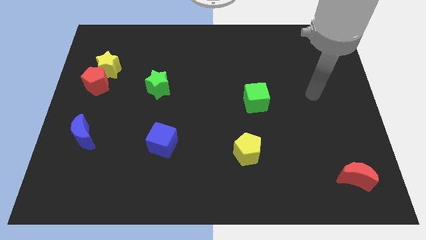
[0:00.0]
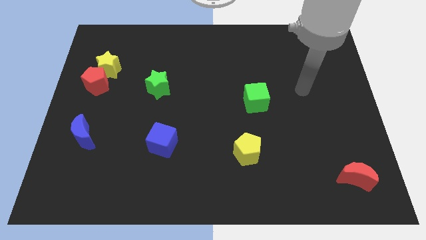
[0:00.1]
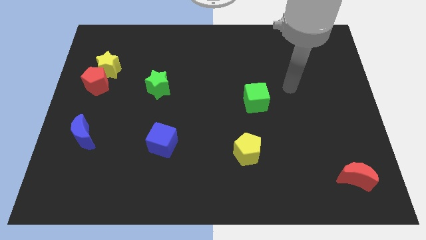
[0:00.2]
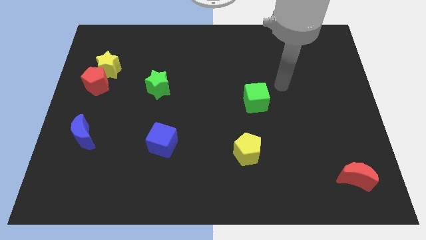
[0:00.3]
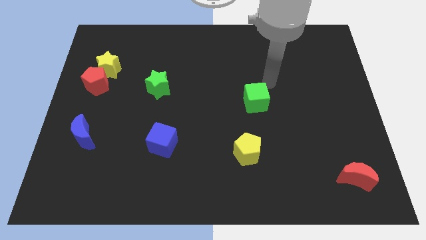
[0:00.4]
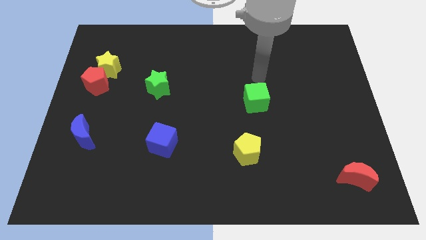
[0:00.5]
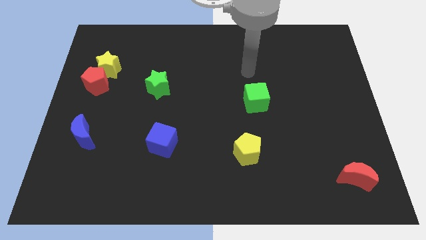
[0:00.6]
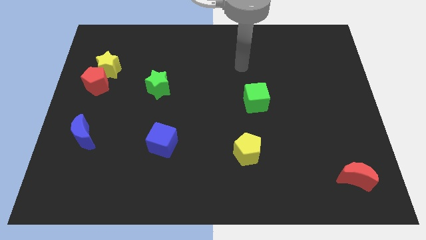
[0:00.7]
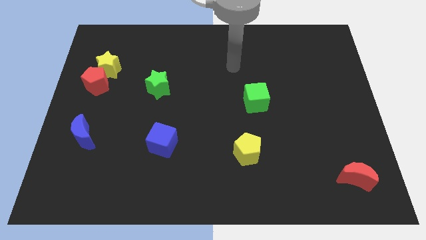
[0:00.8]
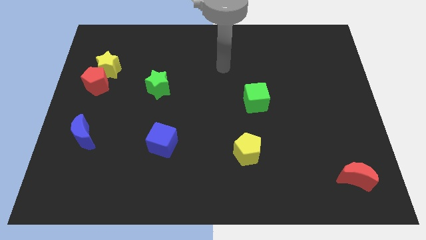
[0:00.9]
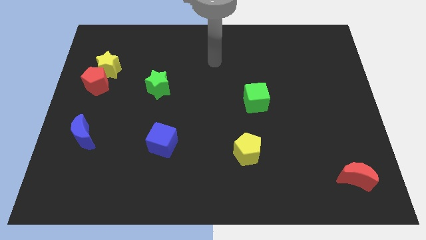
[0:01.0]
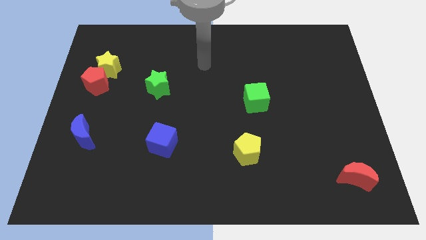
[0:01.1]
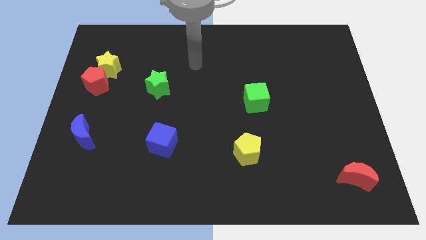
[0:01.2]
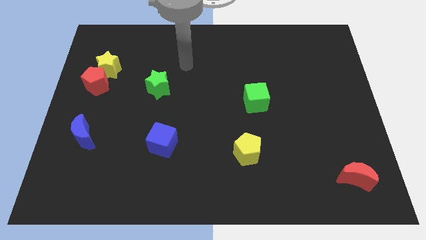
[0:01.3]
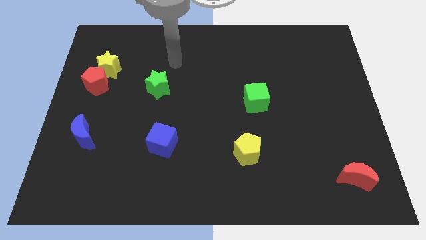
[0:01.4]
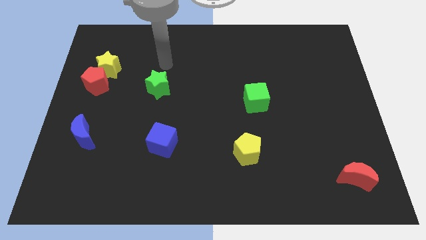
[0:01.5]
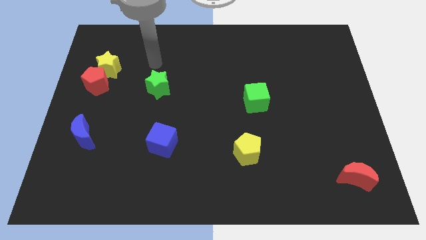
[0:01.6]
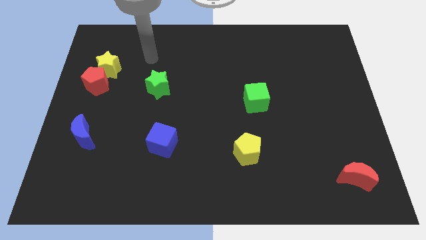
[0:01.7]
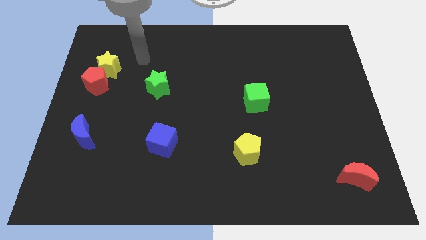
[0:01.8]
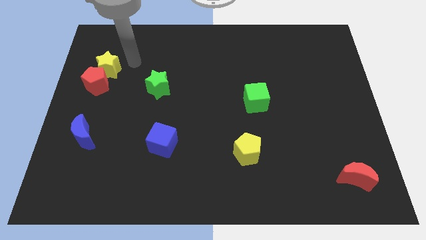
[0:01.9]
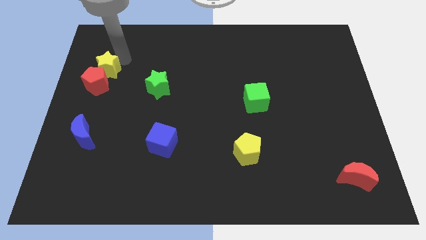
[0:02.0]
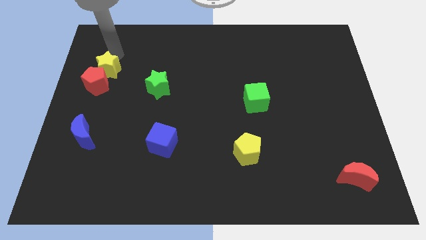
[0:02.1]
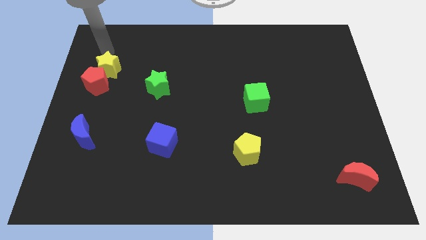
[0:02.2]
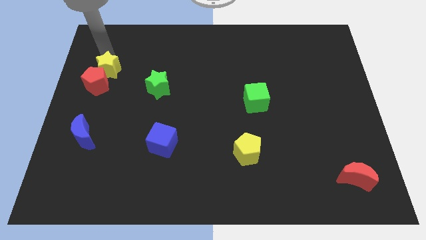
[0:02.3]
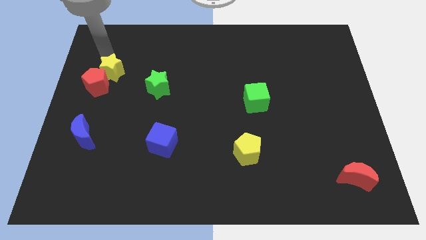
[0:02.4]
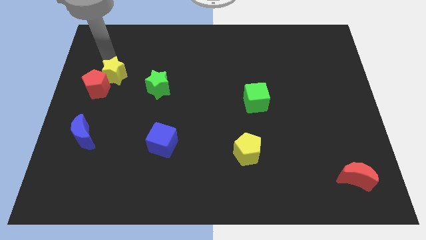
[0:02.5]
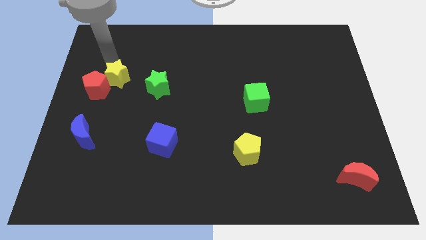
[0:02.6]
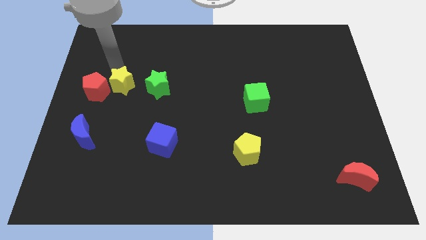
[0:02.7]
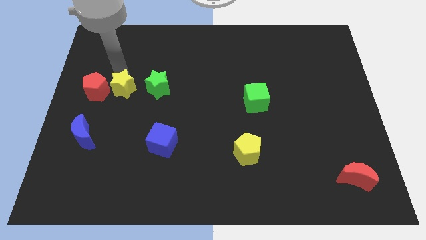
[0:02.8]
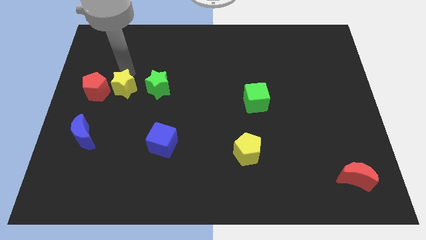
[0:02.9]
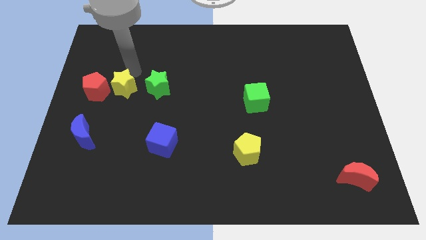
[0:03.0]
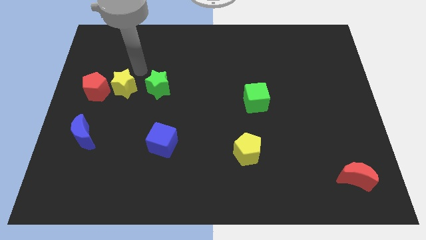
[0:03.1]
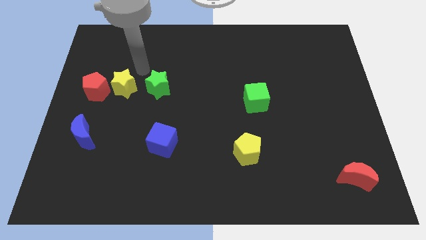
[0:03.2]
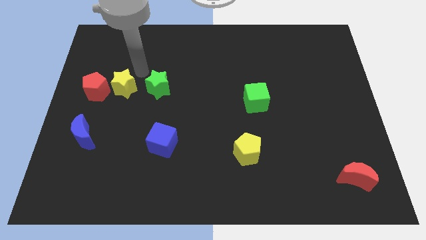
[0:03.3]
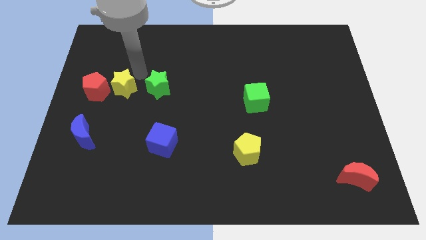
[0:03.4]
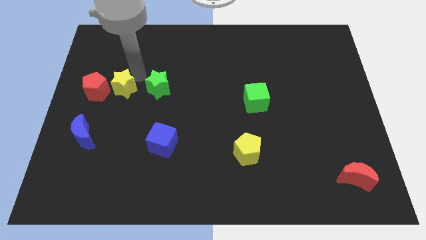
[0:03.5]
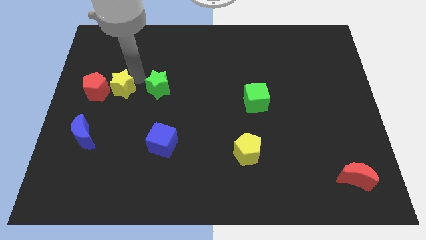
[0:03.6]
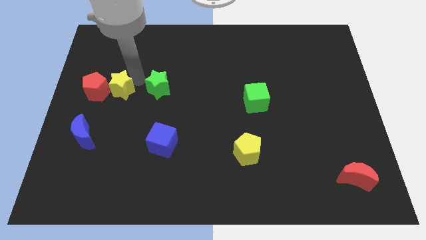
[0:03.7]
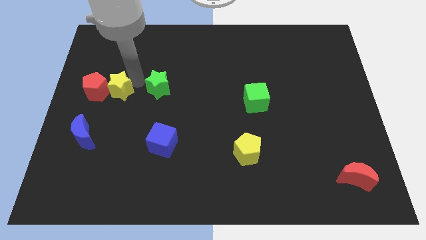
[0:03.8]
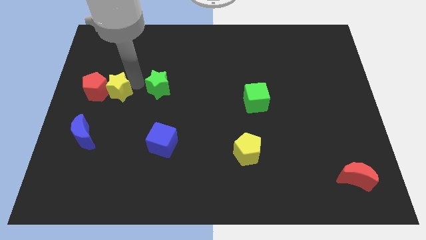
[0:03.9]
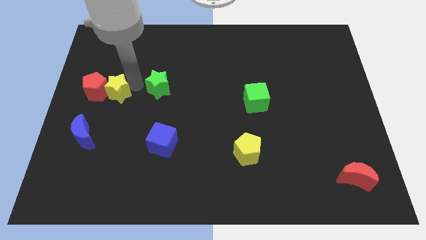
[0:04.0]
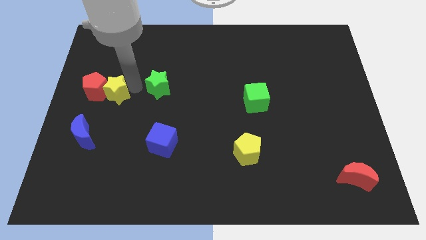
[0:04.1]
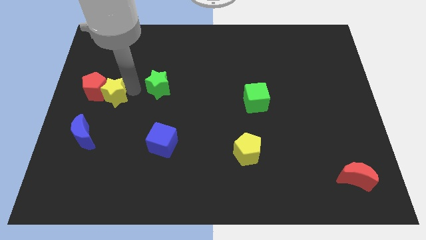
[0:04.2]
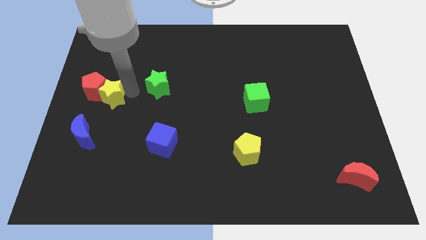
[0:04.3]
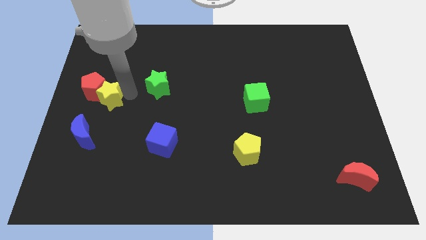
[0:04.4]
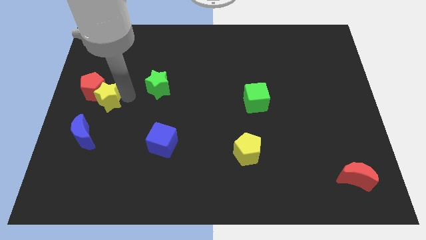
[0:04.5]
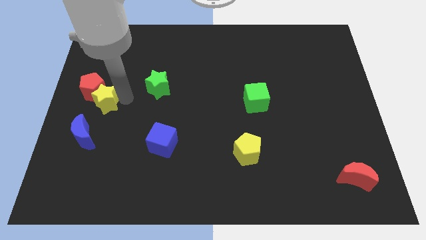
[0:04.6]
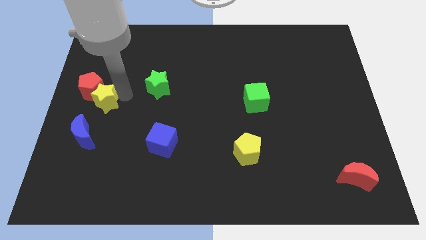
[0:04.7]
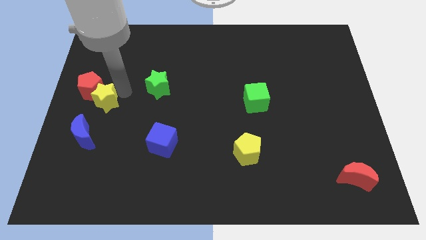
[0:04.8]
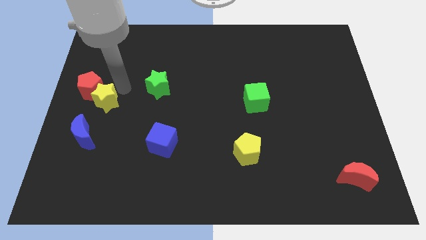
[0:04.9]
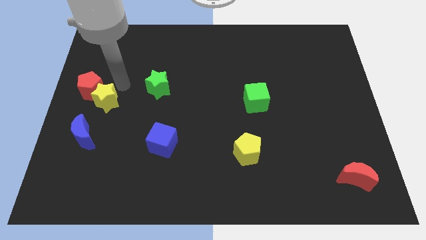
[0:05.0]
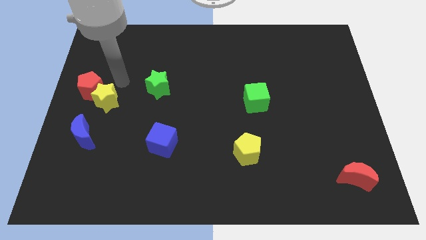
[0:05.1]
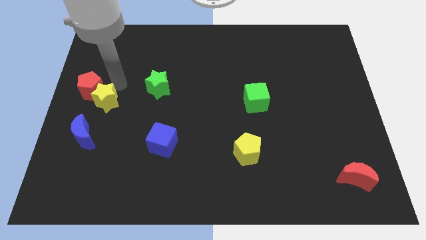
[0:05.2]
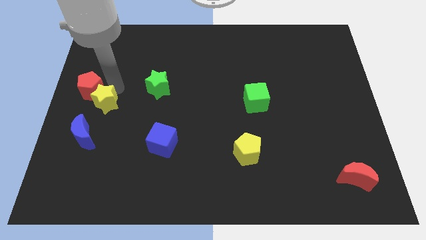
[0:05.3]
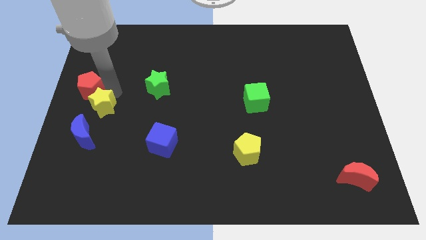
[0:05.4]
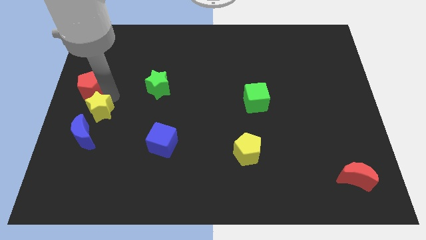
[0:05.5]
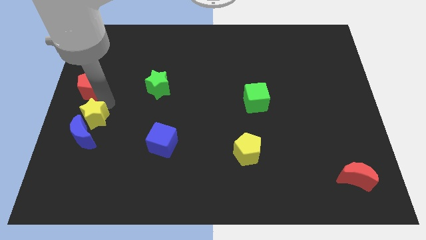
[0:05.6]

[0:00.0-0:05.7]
slide the yellow star next to the blue moon

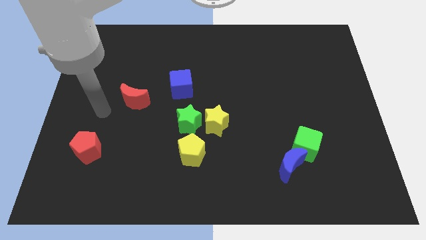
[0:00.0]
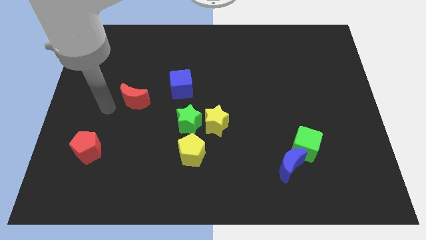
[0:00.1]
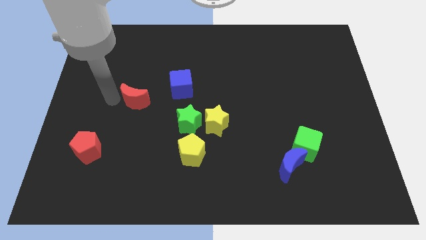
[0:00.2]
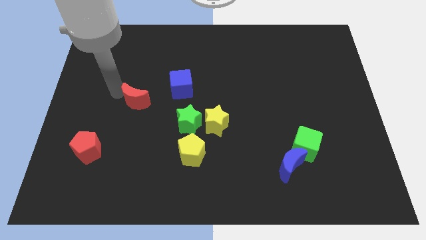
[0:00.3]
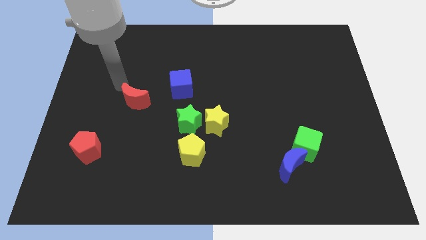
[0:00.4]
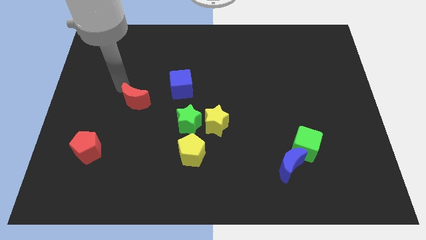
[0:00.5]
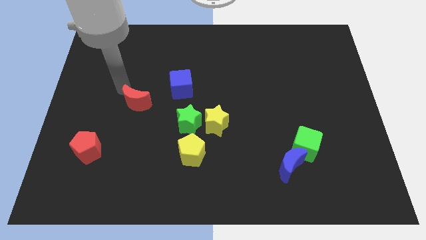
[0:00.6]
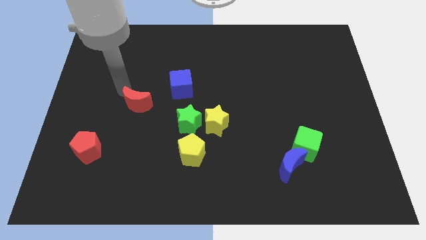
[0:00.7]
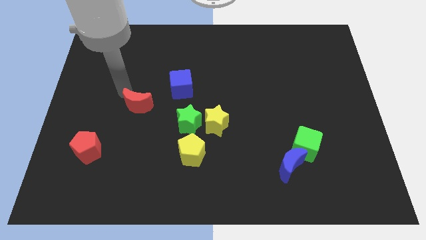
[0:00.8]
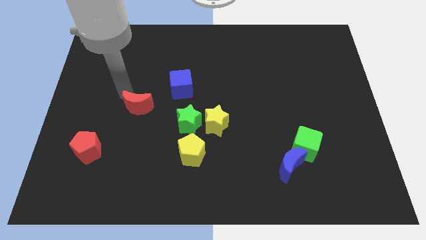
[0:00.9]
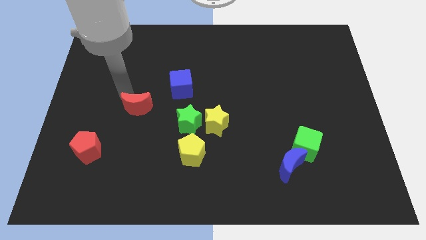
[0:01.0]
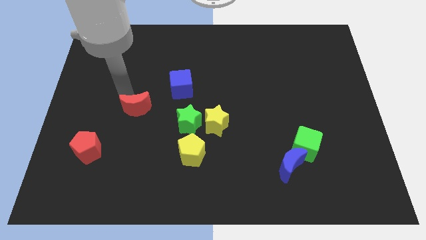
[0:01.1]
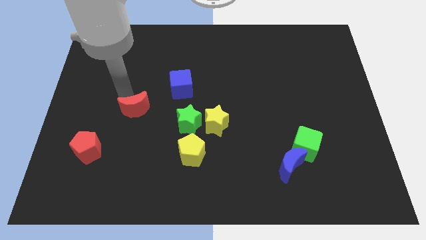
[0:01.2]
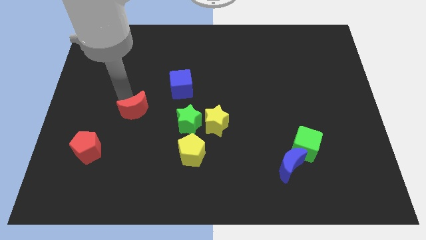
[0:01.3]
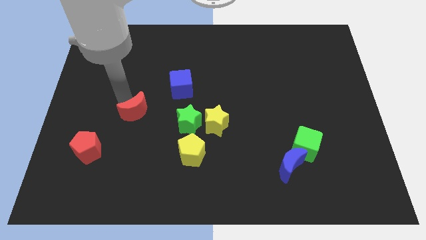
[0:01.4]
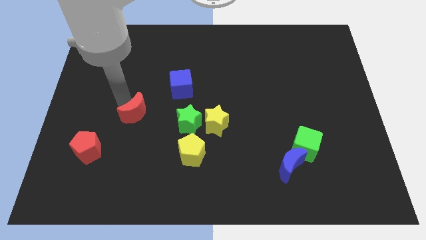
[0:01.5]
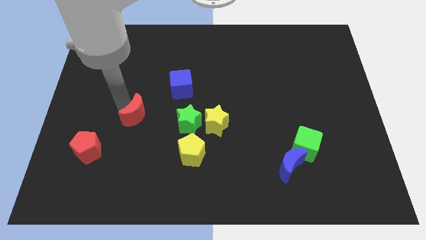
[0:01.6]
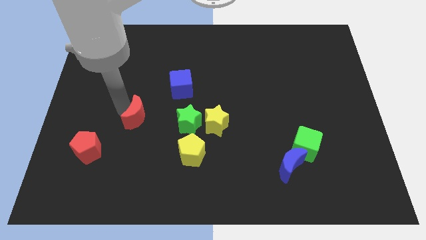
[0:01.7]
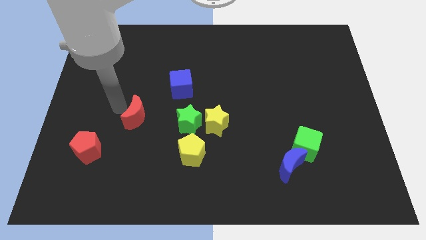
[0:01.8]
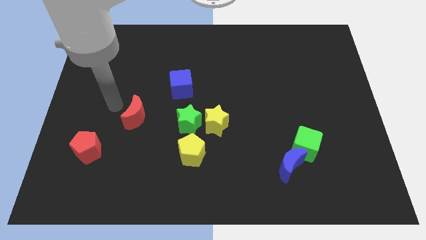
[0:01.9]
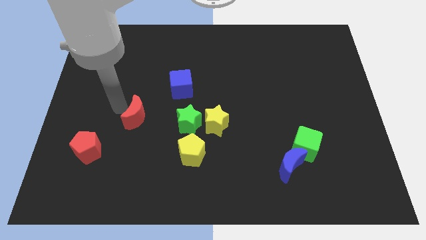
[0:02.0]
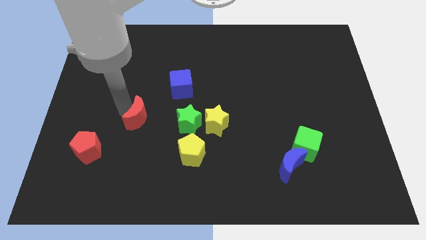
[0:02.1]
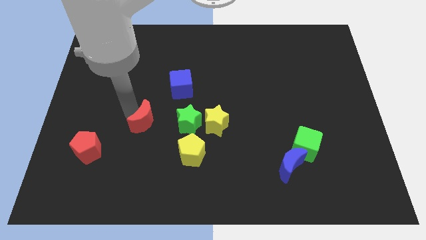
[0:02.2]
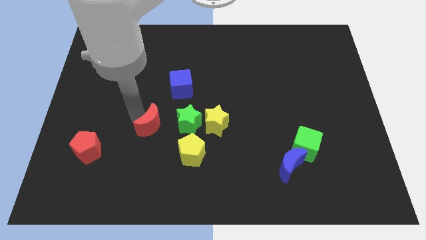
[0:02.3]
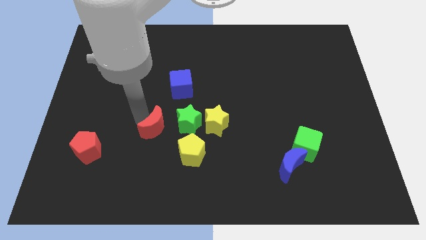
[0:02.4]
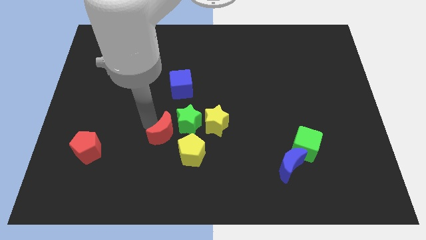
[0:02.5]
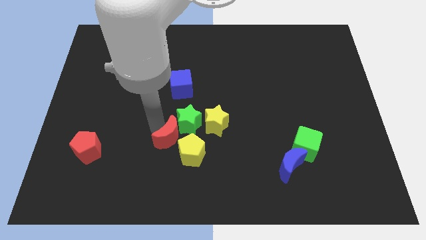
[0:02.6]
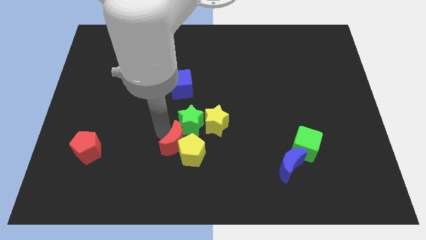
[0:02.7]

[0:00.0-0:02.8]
push the red moon to the yellow pentagon
